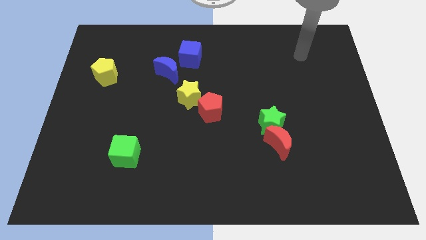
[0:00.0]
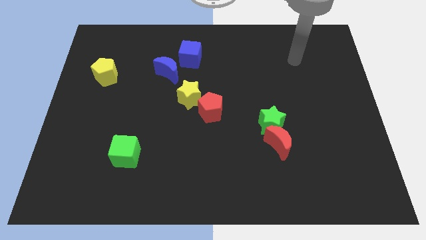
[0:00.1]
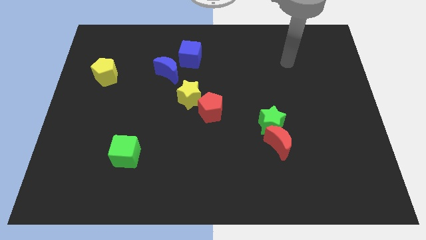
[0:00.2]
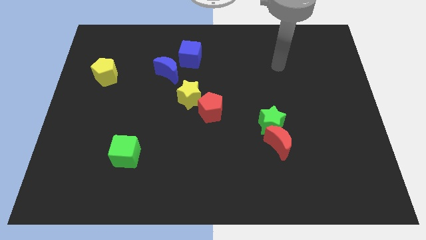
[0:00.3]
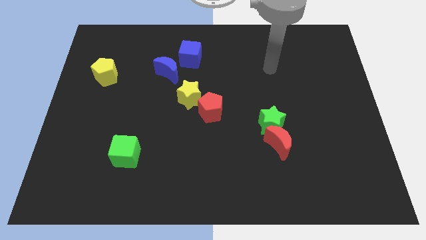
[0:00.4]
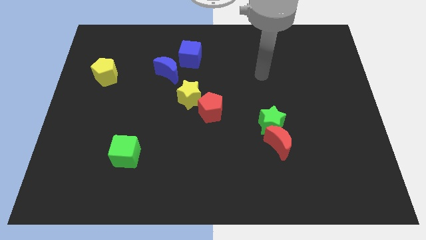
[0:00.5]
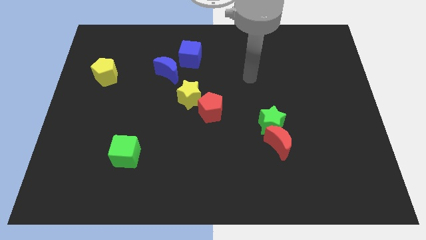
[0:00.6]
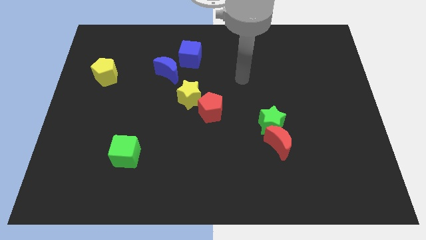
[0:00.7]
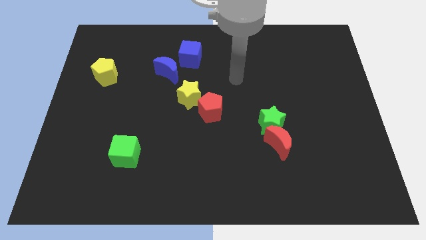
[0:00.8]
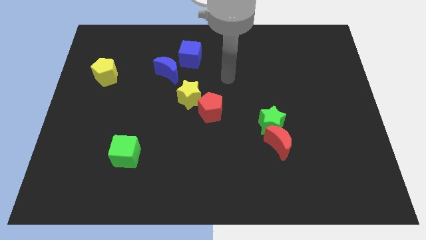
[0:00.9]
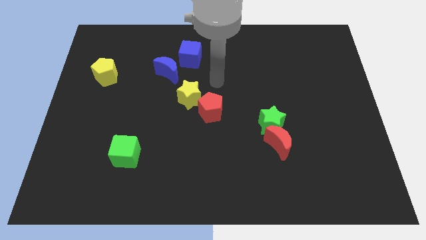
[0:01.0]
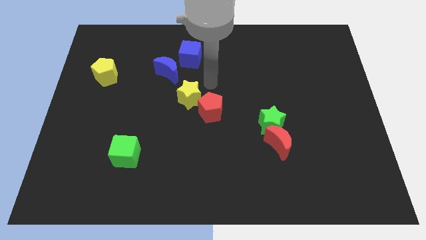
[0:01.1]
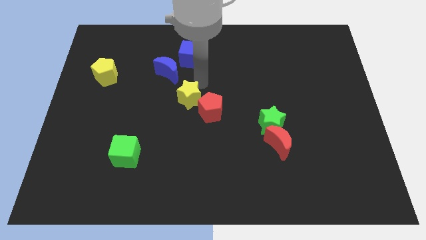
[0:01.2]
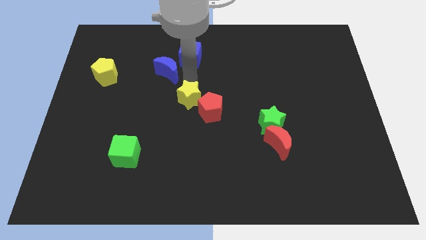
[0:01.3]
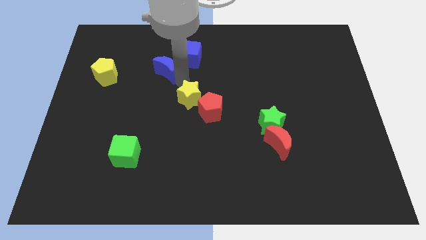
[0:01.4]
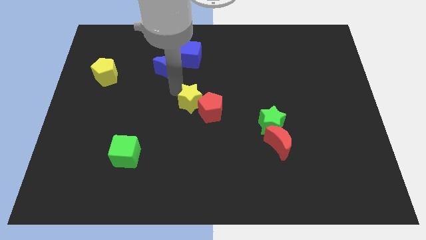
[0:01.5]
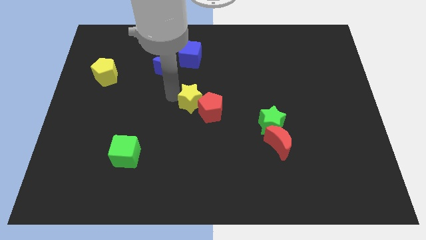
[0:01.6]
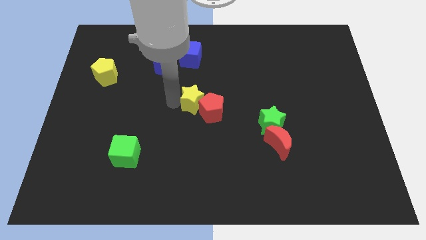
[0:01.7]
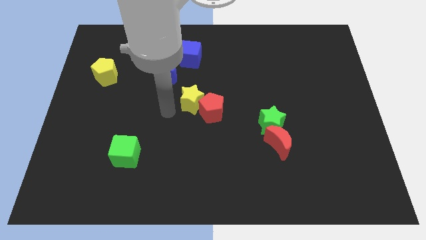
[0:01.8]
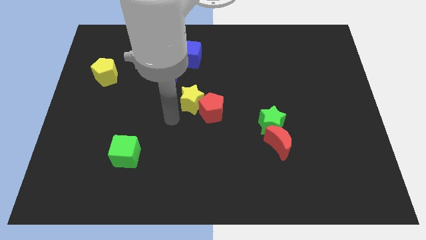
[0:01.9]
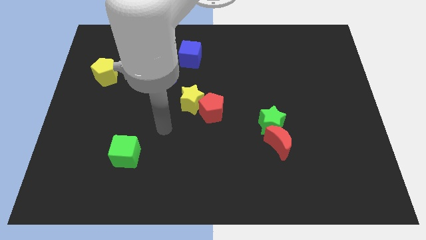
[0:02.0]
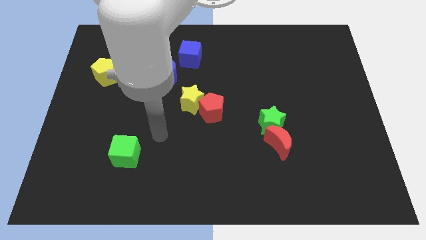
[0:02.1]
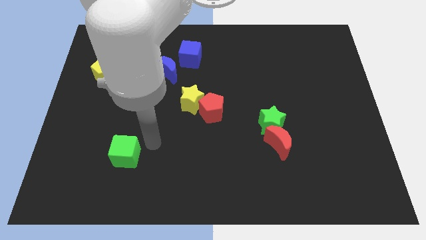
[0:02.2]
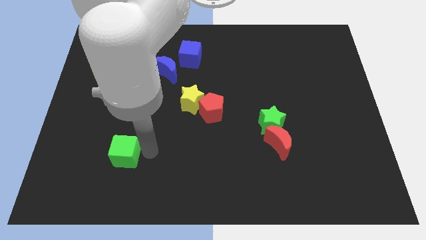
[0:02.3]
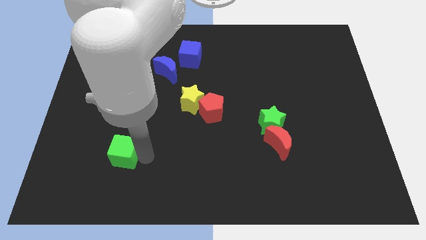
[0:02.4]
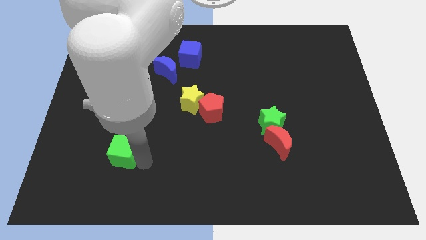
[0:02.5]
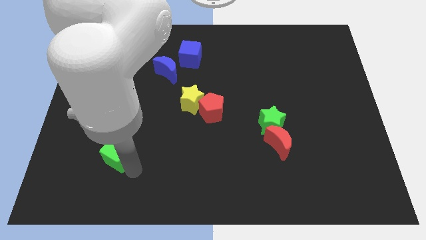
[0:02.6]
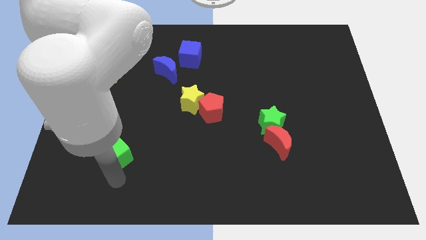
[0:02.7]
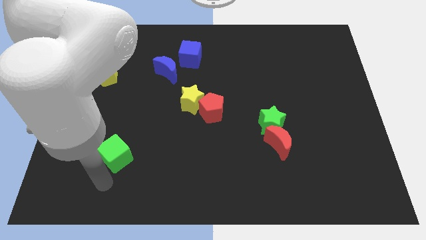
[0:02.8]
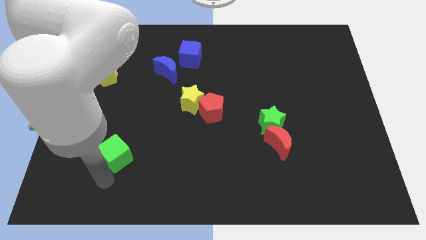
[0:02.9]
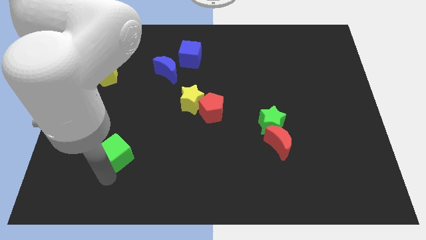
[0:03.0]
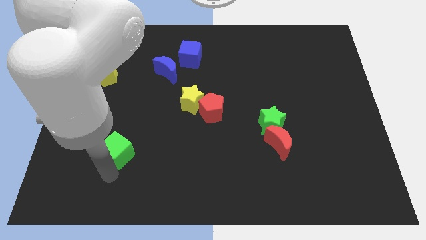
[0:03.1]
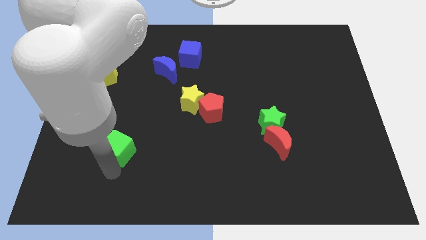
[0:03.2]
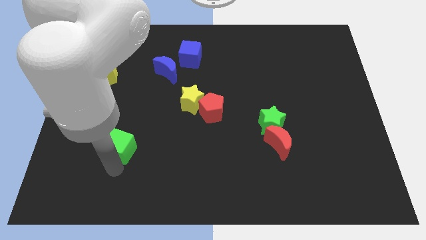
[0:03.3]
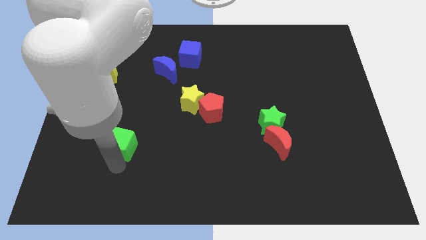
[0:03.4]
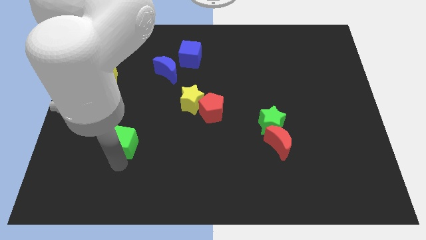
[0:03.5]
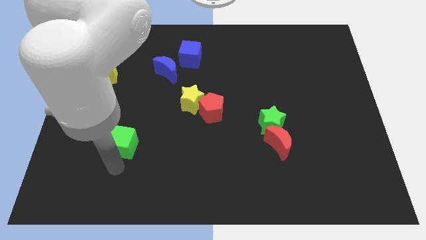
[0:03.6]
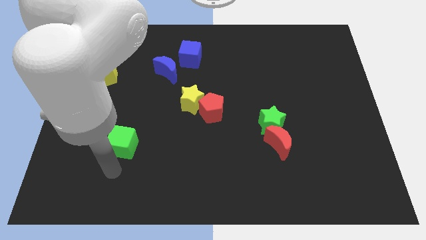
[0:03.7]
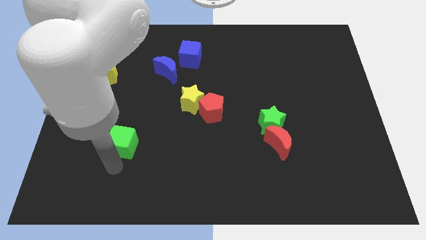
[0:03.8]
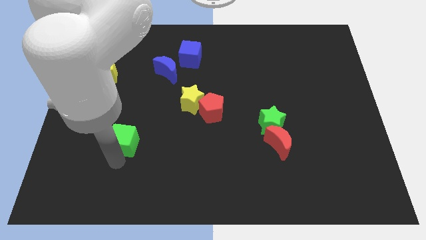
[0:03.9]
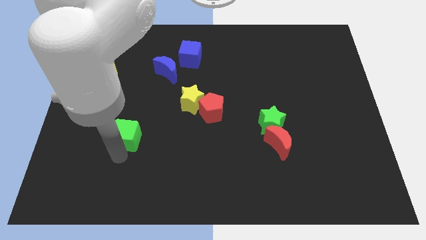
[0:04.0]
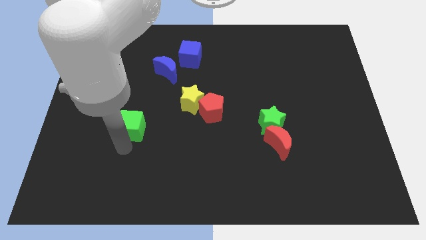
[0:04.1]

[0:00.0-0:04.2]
push the green cube up slightly

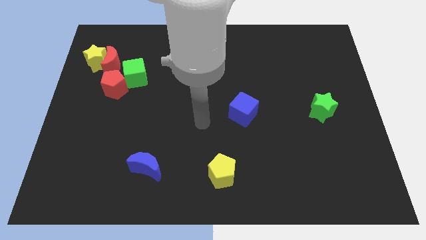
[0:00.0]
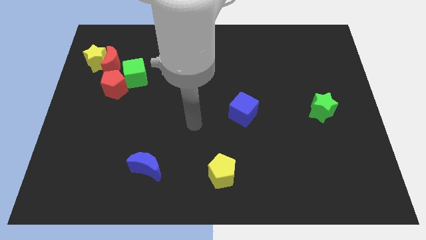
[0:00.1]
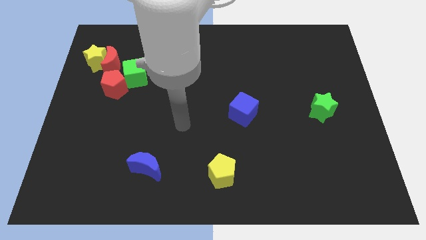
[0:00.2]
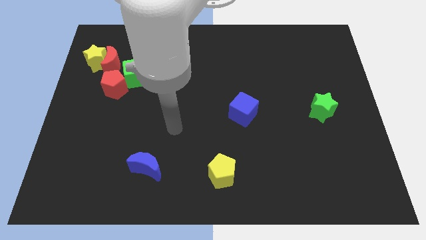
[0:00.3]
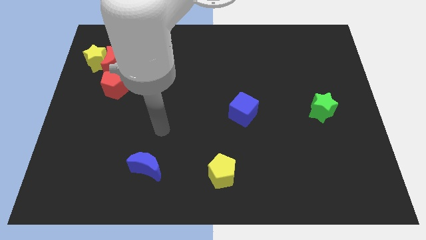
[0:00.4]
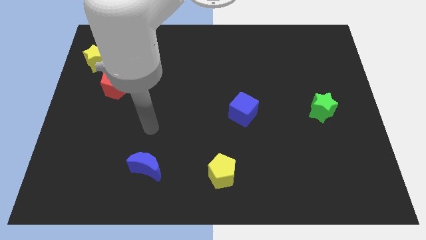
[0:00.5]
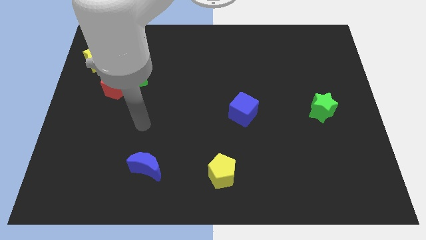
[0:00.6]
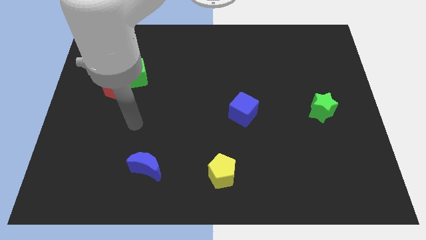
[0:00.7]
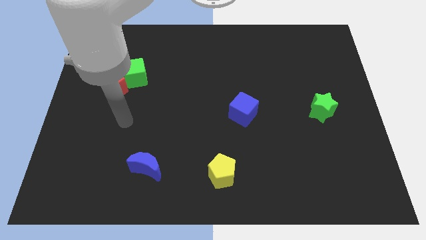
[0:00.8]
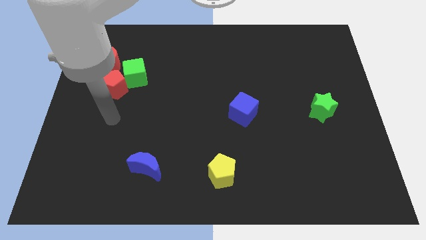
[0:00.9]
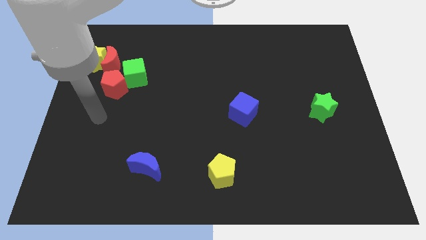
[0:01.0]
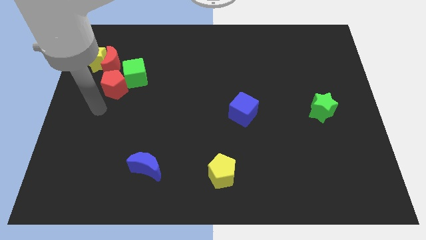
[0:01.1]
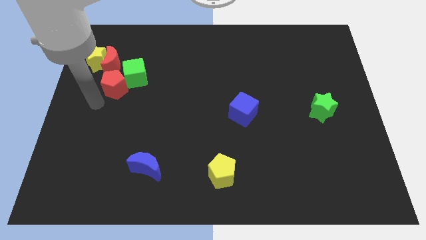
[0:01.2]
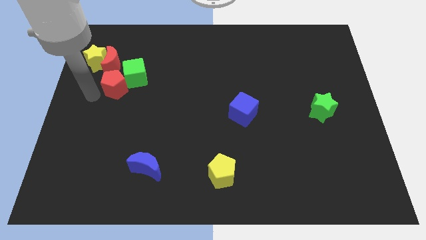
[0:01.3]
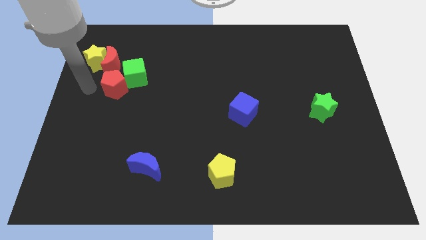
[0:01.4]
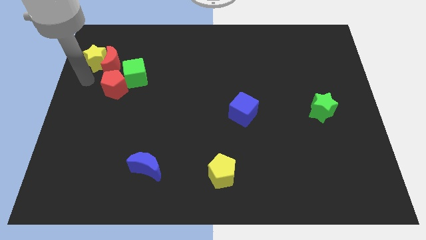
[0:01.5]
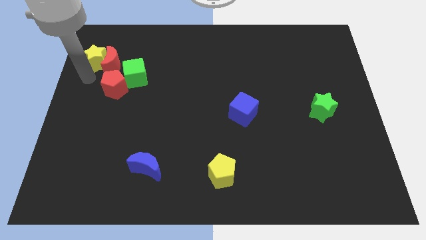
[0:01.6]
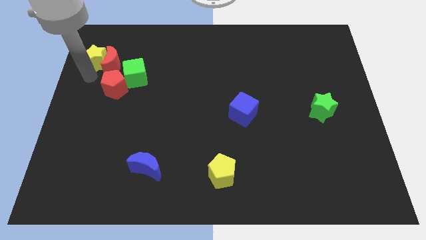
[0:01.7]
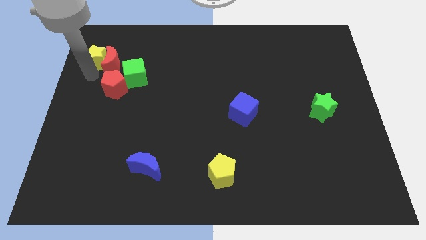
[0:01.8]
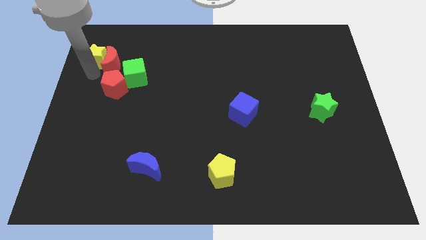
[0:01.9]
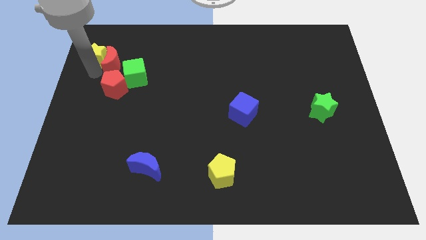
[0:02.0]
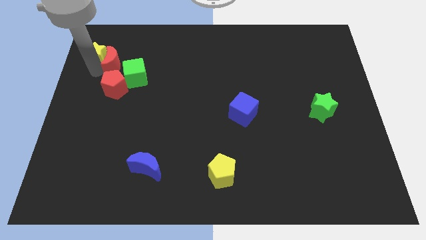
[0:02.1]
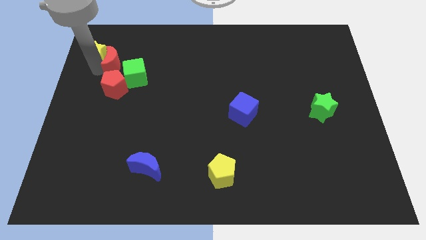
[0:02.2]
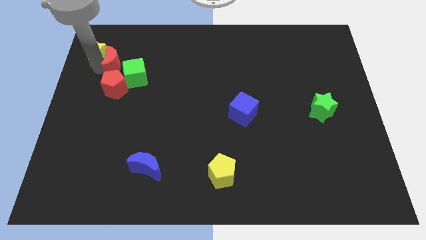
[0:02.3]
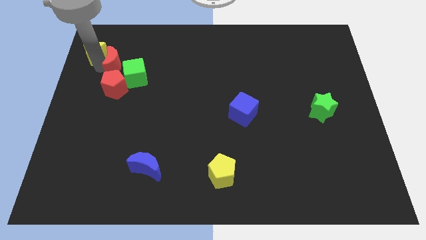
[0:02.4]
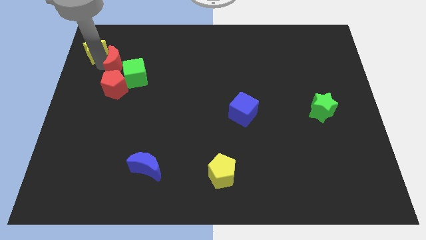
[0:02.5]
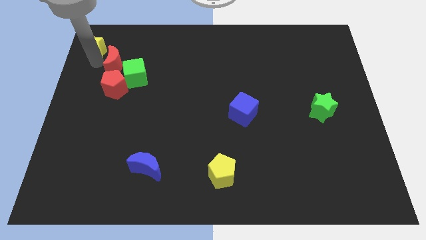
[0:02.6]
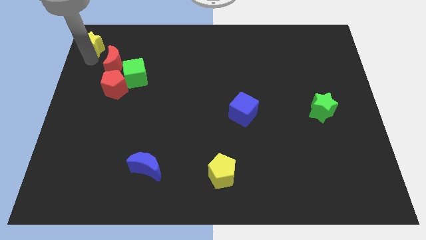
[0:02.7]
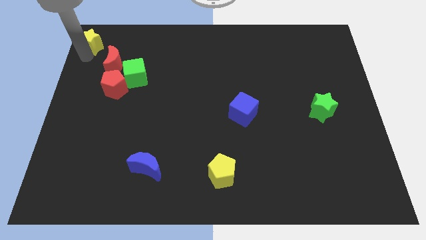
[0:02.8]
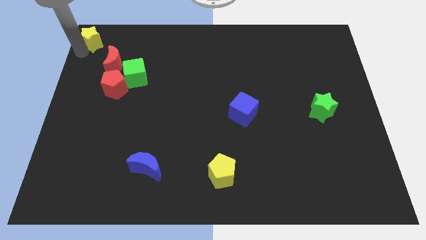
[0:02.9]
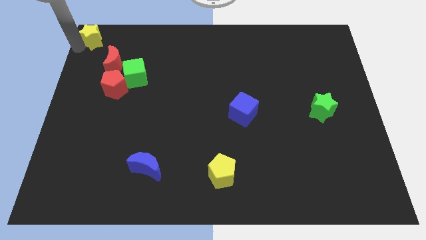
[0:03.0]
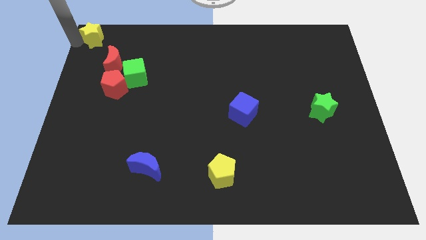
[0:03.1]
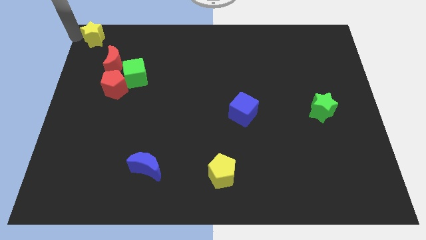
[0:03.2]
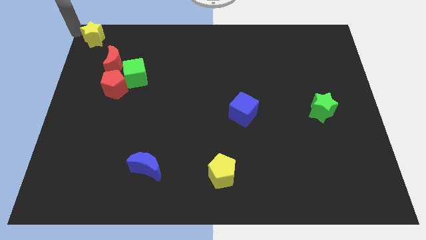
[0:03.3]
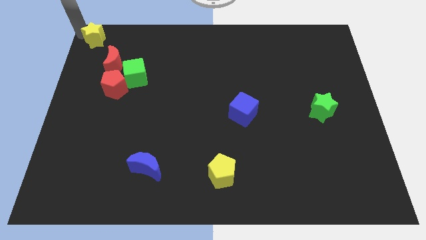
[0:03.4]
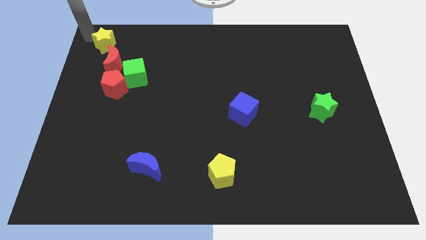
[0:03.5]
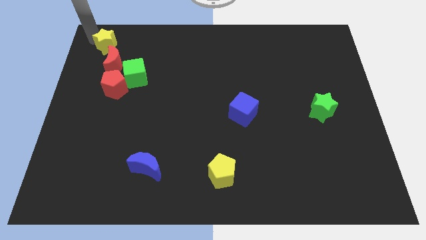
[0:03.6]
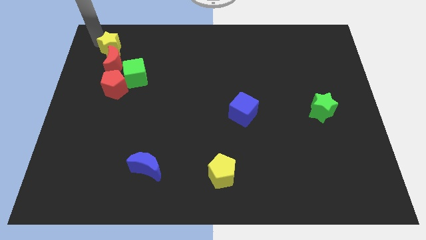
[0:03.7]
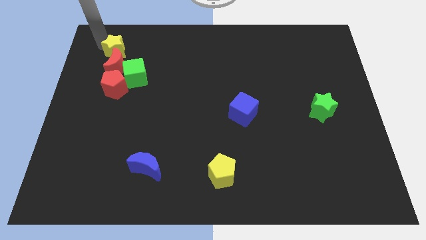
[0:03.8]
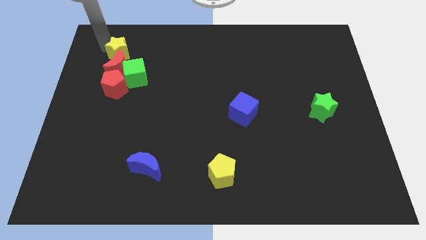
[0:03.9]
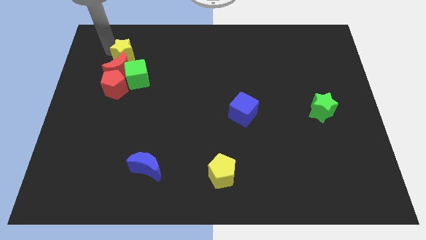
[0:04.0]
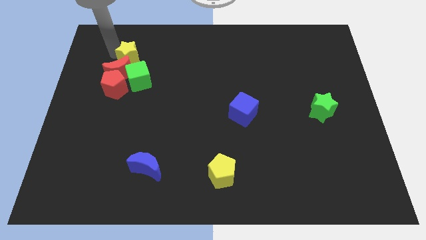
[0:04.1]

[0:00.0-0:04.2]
move the yellow star a little bit right
